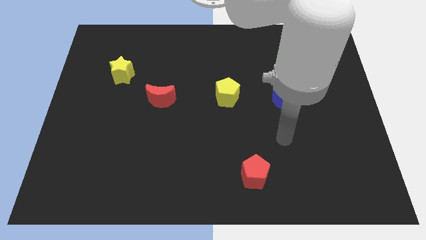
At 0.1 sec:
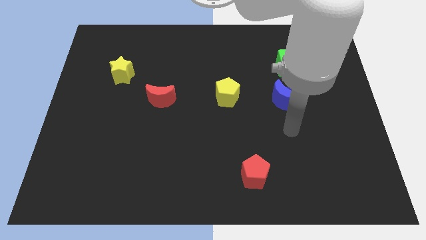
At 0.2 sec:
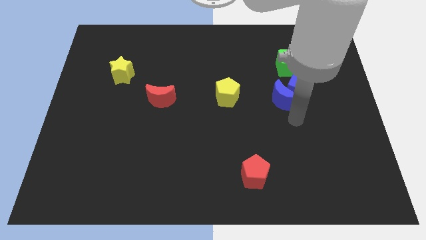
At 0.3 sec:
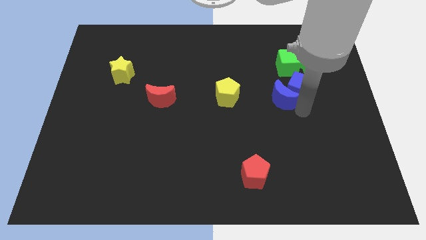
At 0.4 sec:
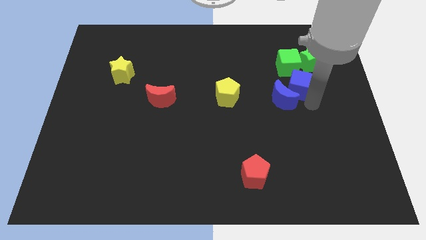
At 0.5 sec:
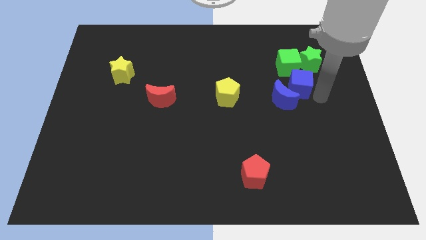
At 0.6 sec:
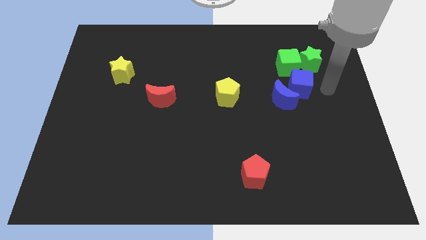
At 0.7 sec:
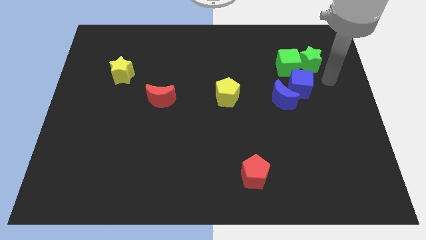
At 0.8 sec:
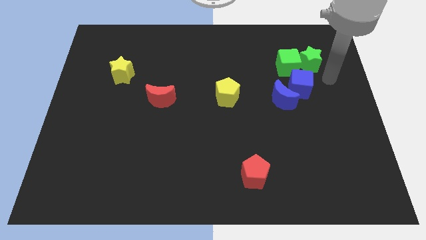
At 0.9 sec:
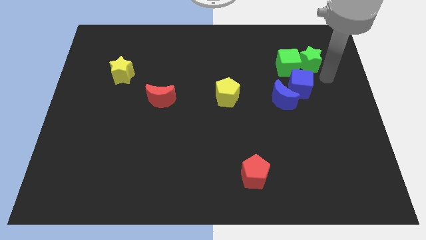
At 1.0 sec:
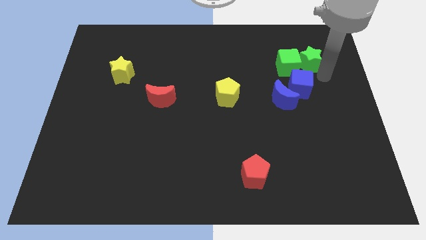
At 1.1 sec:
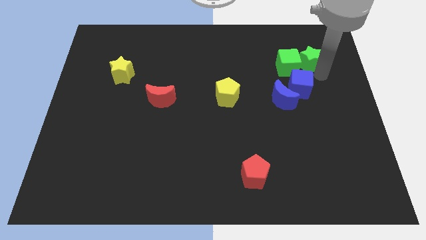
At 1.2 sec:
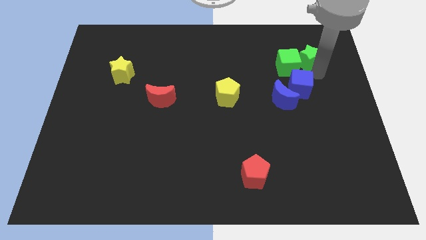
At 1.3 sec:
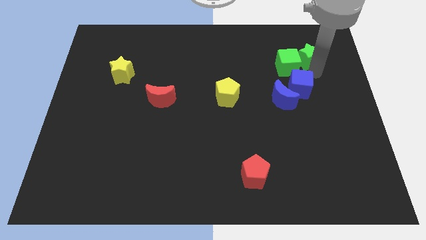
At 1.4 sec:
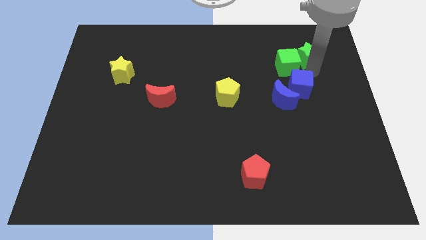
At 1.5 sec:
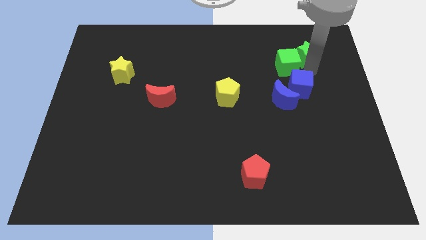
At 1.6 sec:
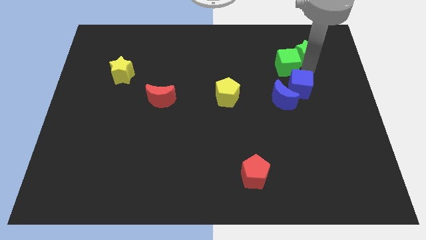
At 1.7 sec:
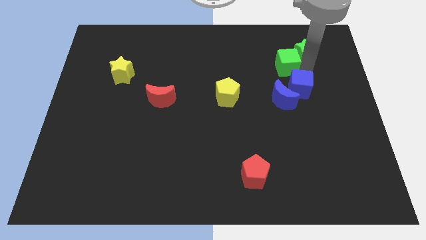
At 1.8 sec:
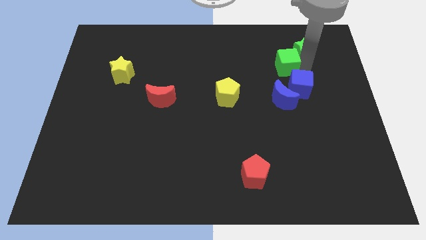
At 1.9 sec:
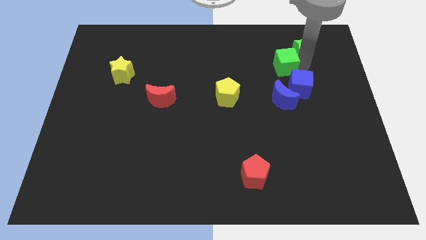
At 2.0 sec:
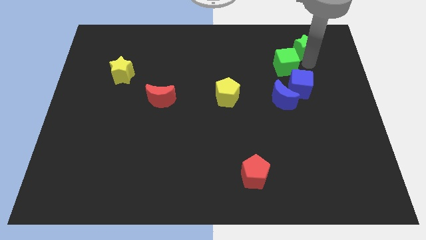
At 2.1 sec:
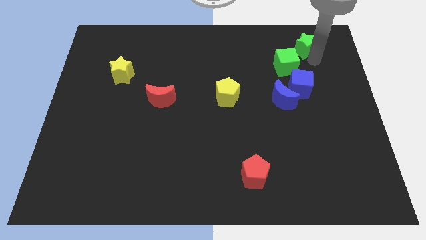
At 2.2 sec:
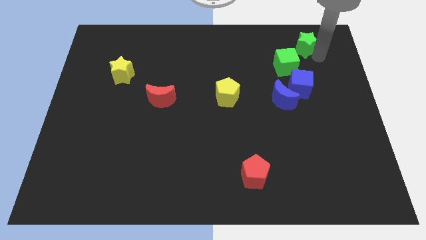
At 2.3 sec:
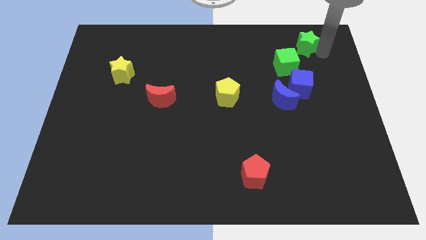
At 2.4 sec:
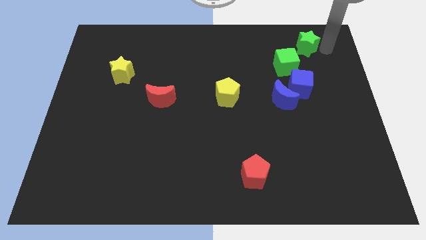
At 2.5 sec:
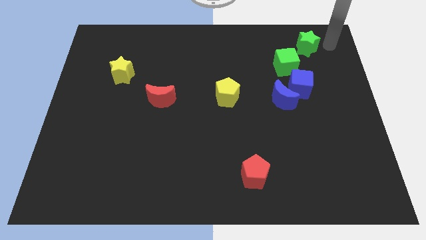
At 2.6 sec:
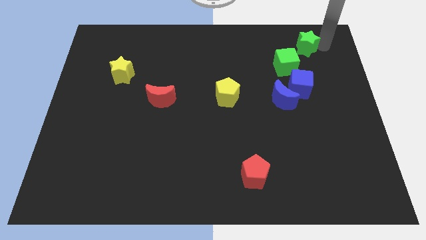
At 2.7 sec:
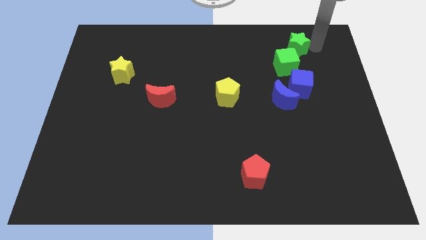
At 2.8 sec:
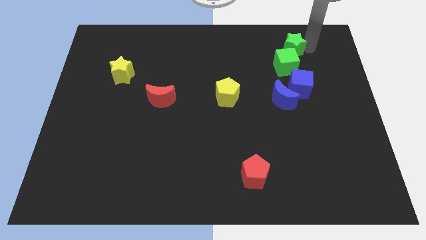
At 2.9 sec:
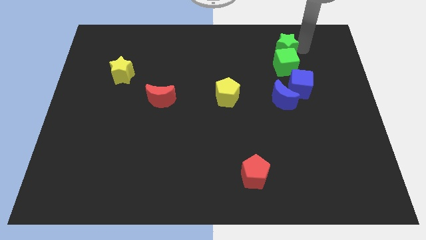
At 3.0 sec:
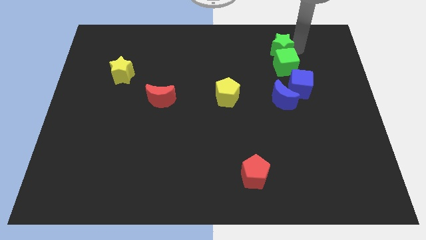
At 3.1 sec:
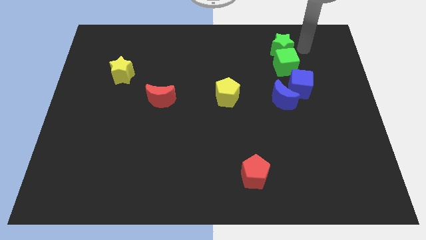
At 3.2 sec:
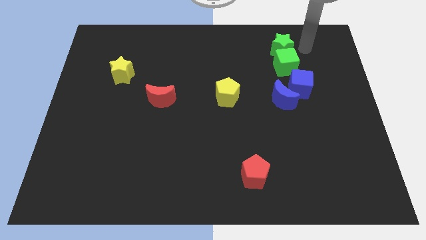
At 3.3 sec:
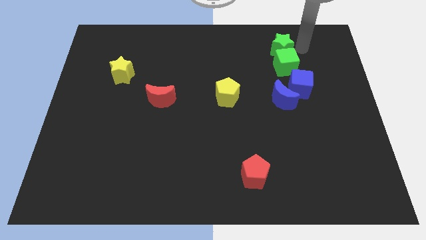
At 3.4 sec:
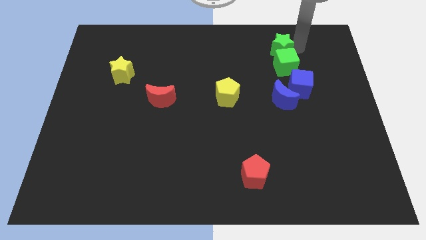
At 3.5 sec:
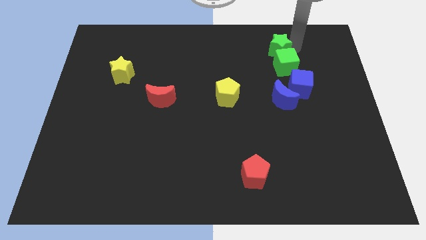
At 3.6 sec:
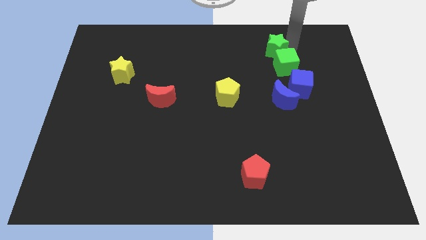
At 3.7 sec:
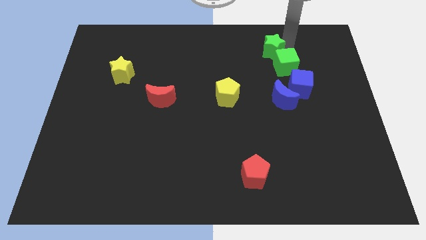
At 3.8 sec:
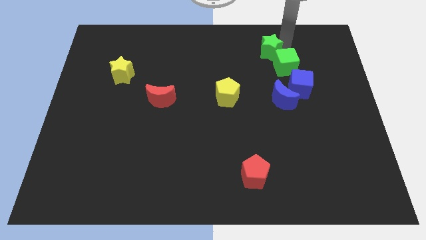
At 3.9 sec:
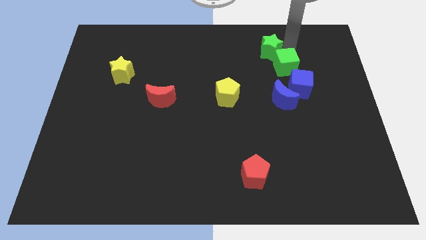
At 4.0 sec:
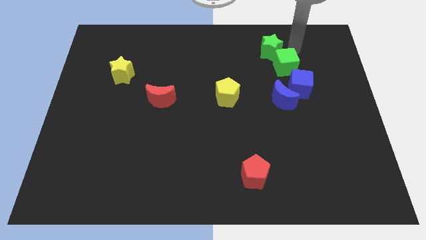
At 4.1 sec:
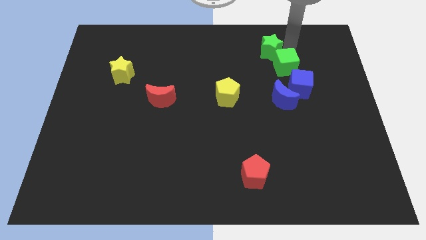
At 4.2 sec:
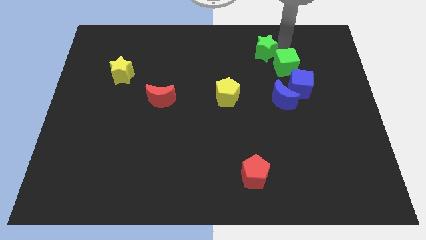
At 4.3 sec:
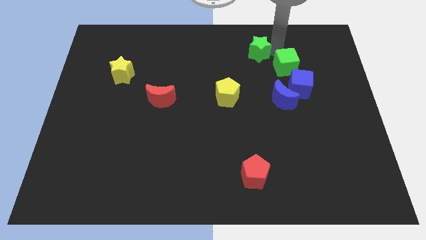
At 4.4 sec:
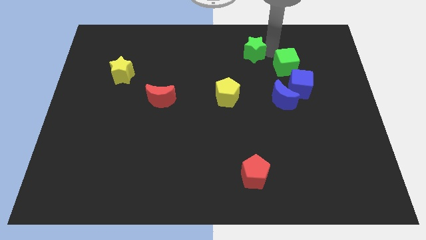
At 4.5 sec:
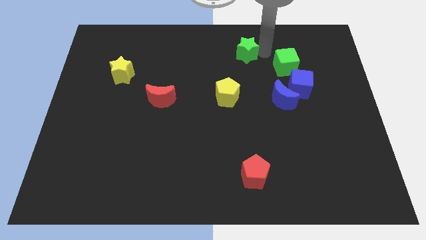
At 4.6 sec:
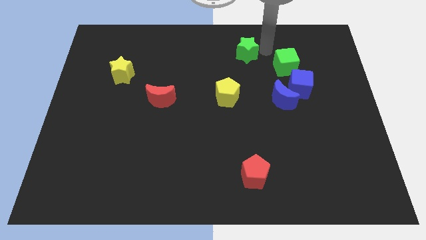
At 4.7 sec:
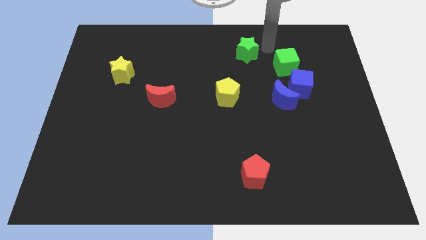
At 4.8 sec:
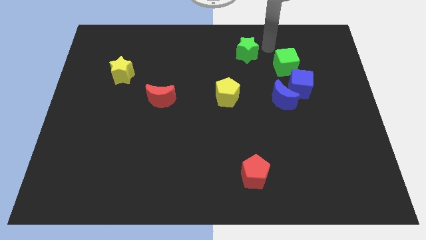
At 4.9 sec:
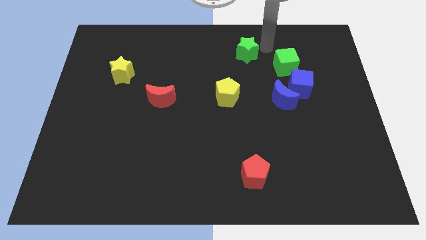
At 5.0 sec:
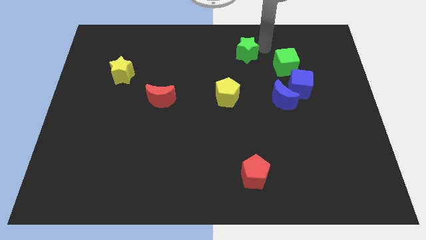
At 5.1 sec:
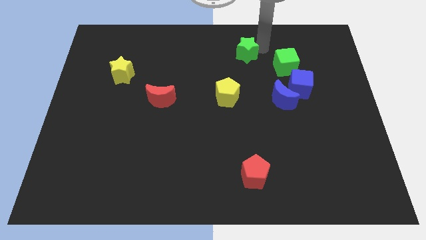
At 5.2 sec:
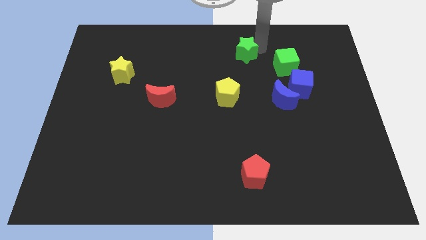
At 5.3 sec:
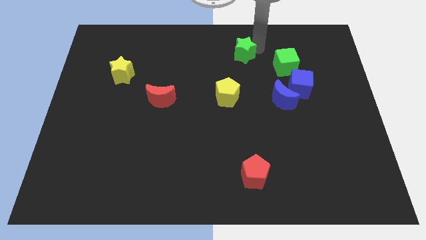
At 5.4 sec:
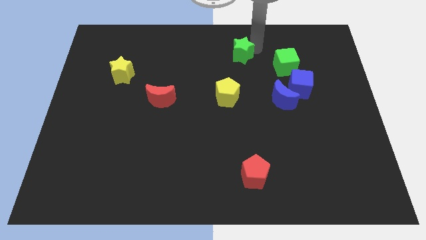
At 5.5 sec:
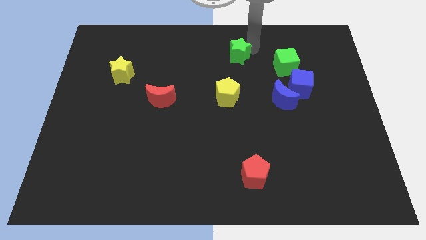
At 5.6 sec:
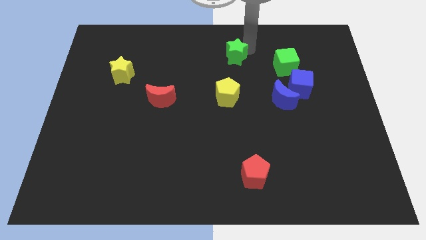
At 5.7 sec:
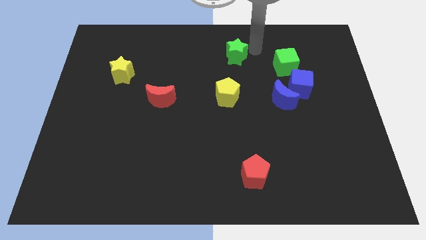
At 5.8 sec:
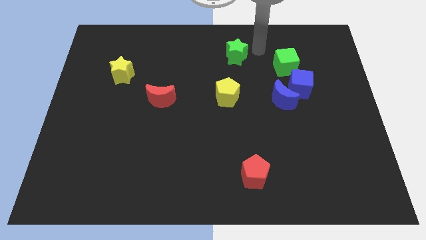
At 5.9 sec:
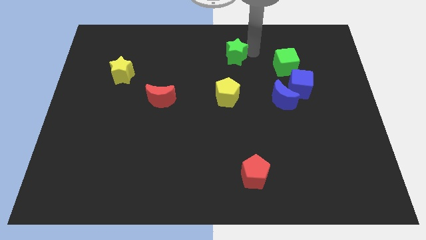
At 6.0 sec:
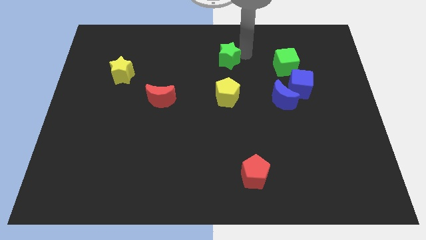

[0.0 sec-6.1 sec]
slide the green star to the left

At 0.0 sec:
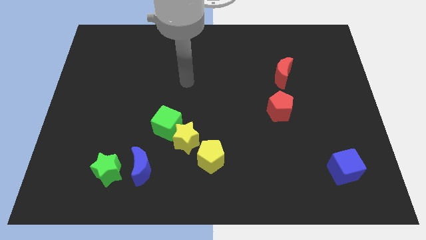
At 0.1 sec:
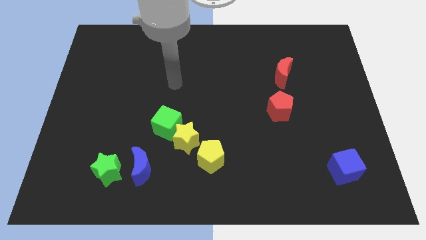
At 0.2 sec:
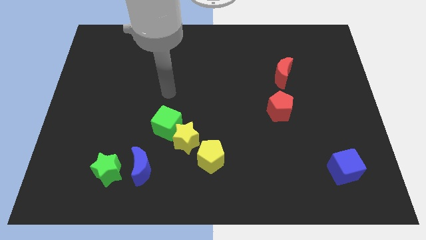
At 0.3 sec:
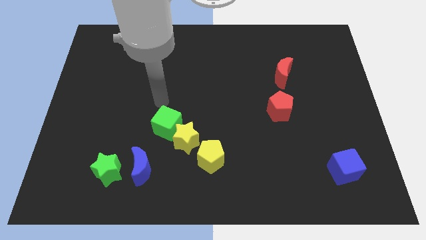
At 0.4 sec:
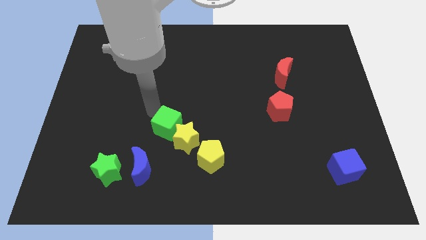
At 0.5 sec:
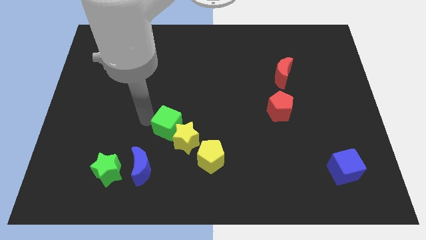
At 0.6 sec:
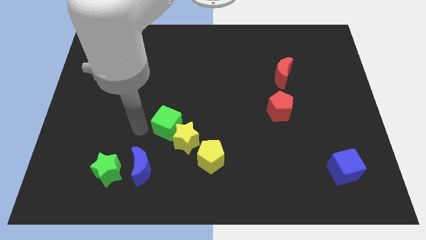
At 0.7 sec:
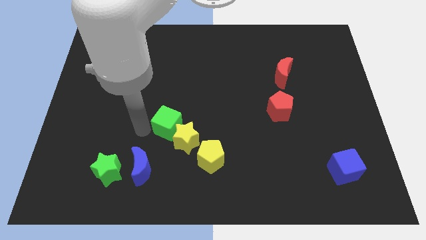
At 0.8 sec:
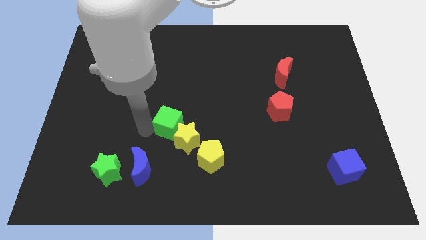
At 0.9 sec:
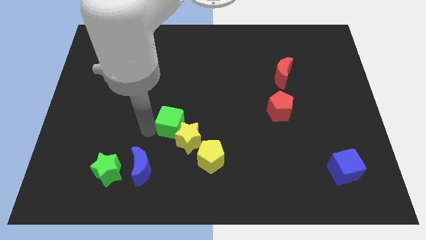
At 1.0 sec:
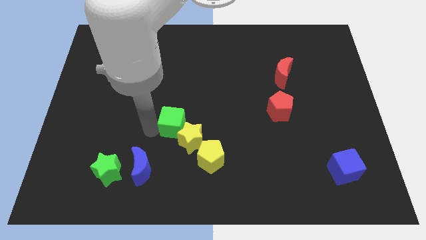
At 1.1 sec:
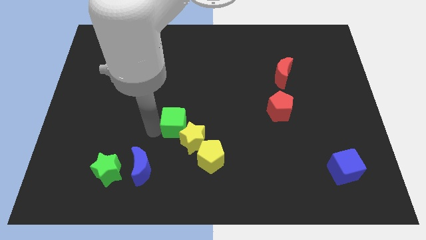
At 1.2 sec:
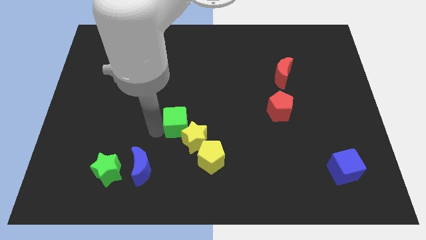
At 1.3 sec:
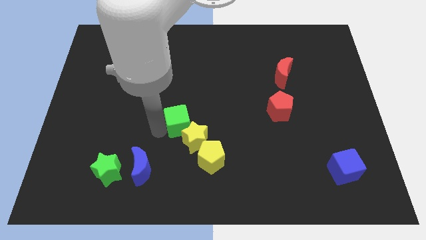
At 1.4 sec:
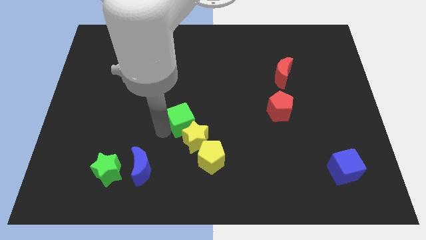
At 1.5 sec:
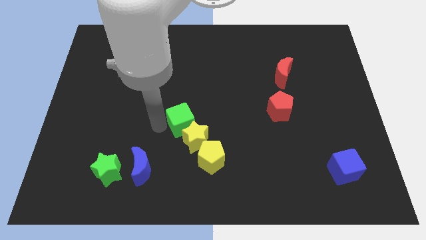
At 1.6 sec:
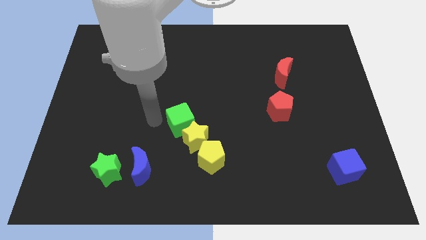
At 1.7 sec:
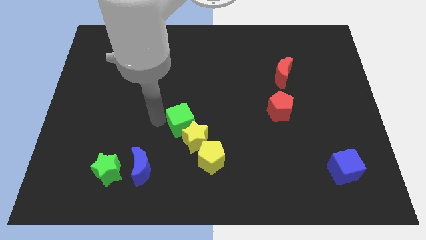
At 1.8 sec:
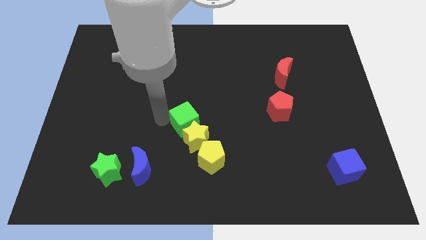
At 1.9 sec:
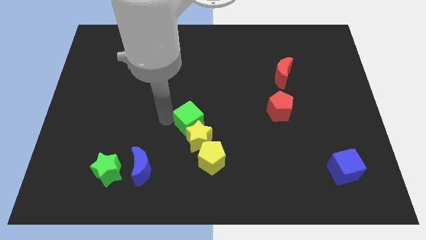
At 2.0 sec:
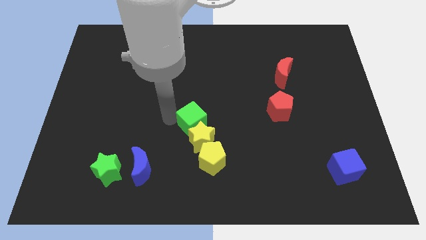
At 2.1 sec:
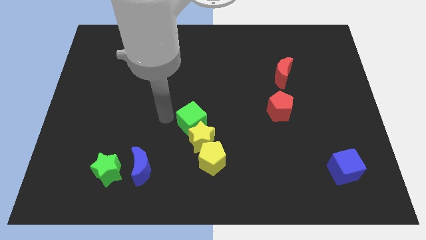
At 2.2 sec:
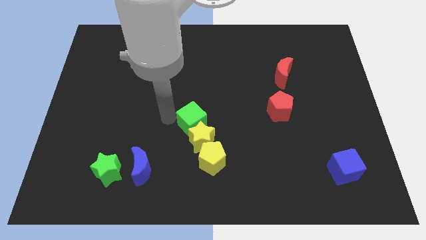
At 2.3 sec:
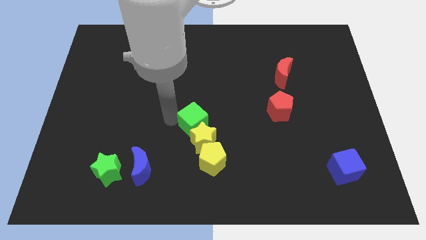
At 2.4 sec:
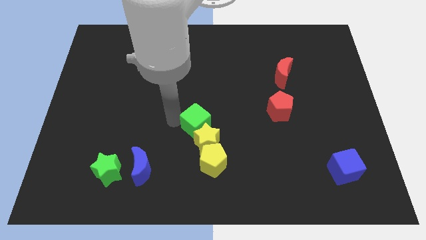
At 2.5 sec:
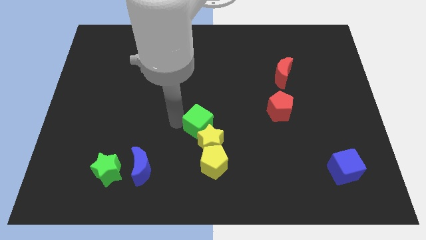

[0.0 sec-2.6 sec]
slightly slide the green cube right
